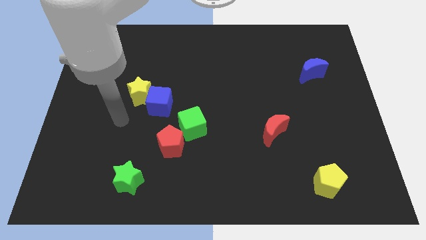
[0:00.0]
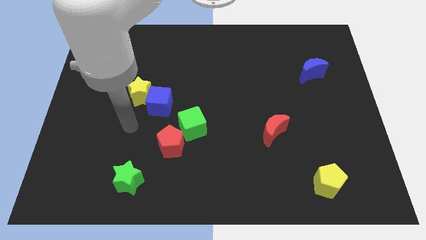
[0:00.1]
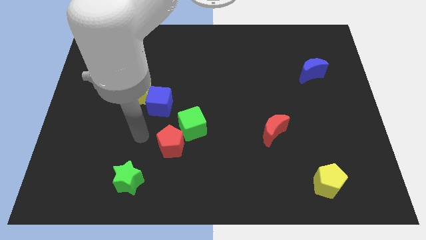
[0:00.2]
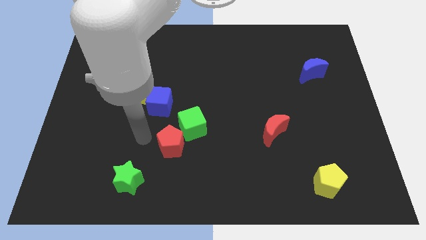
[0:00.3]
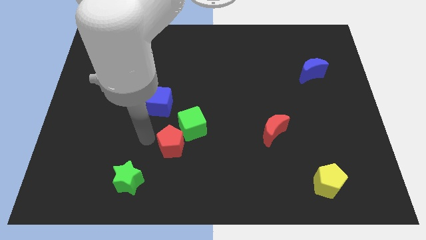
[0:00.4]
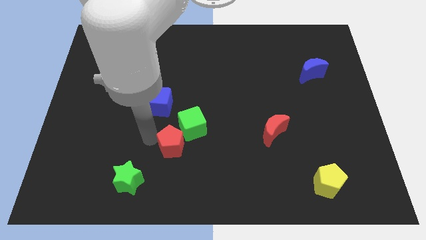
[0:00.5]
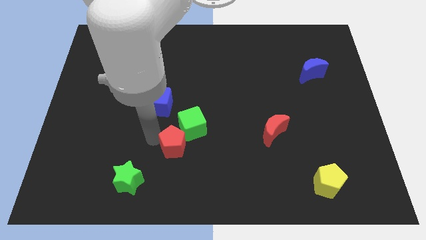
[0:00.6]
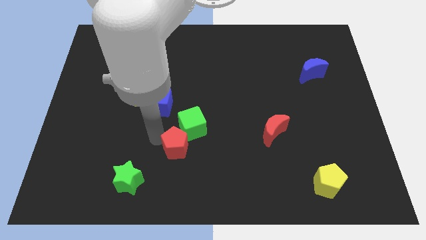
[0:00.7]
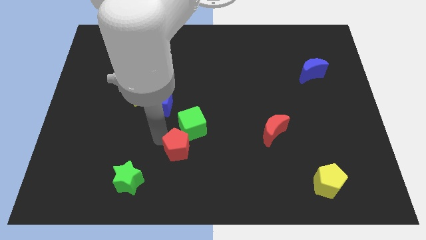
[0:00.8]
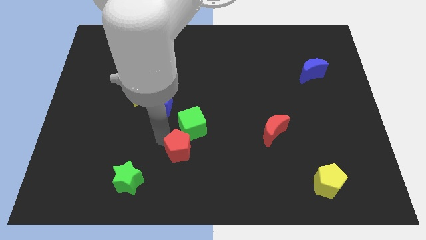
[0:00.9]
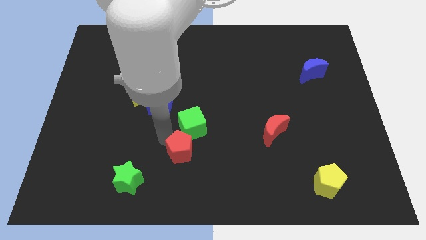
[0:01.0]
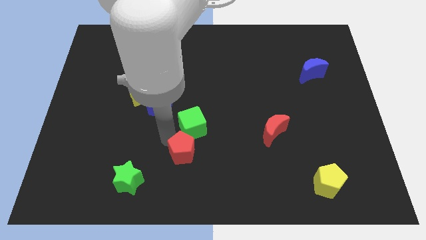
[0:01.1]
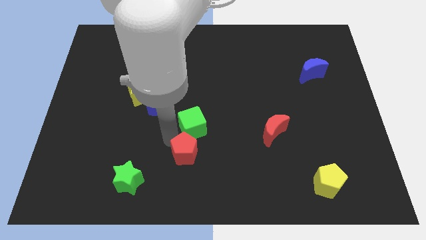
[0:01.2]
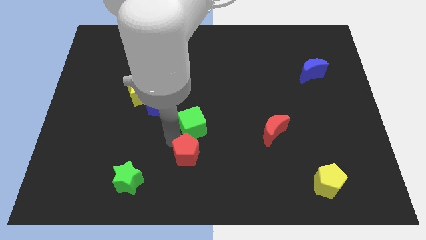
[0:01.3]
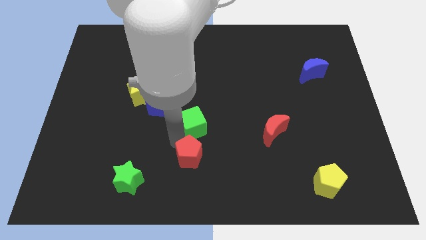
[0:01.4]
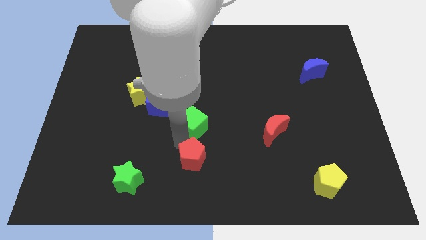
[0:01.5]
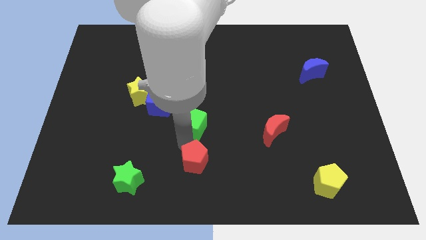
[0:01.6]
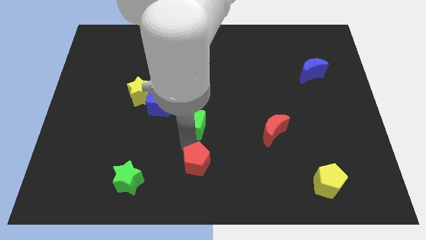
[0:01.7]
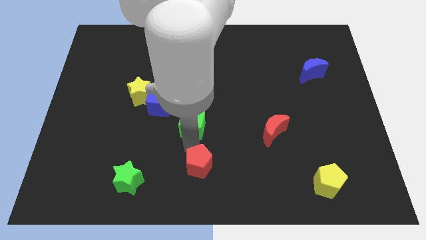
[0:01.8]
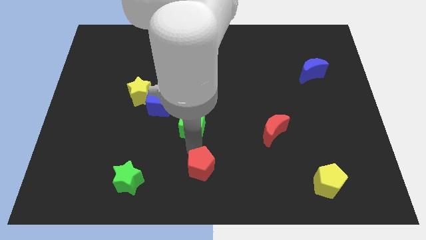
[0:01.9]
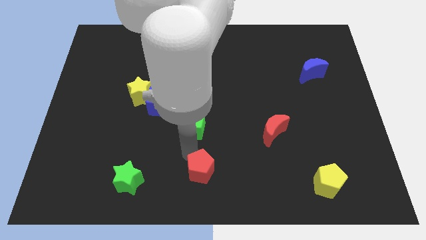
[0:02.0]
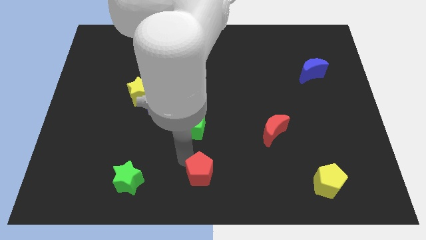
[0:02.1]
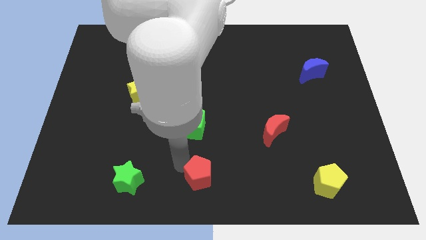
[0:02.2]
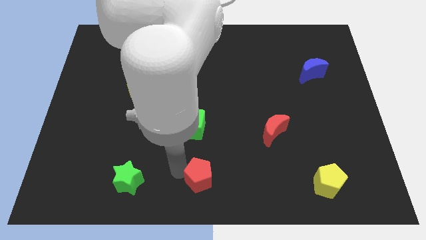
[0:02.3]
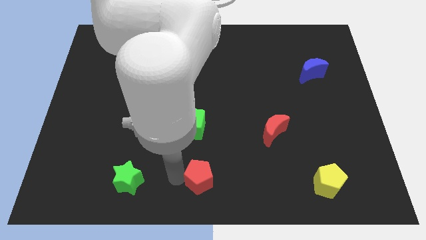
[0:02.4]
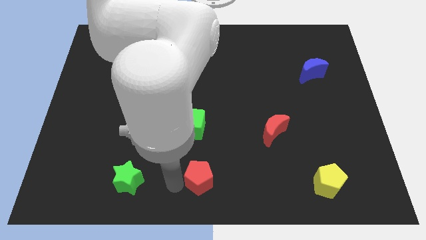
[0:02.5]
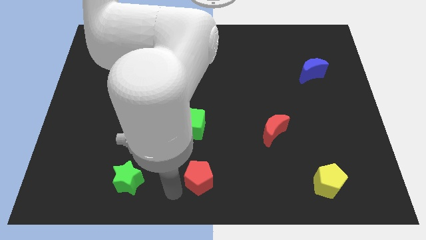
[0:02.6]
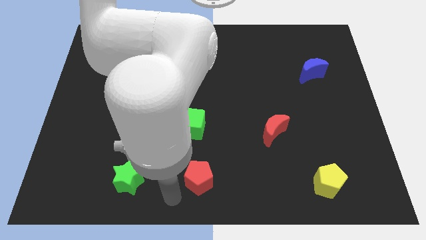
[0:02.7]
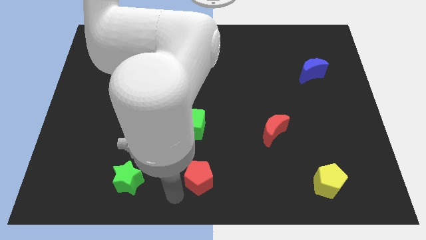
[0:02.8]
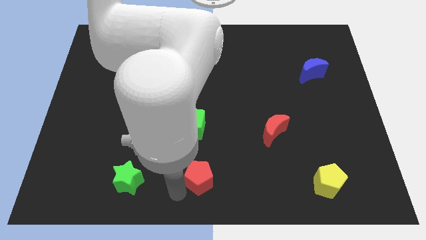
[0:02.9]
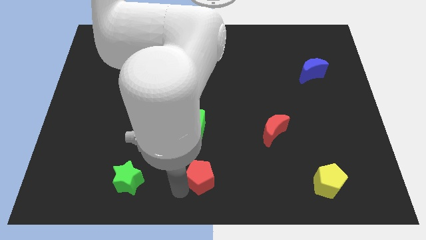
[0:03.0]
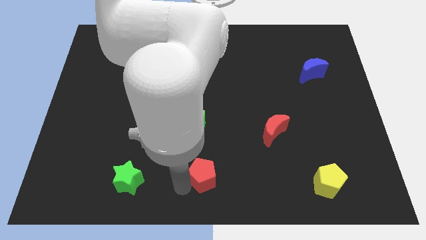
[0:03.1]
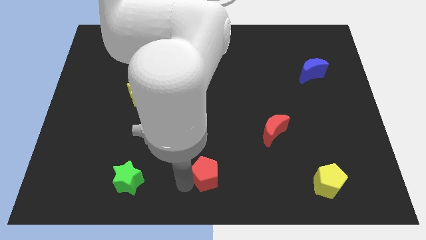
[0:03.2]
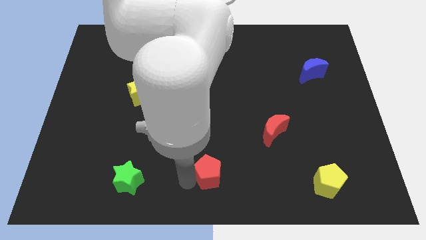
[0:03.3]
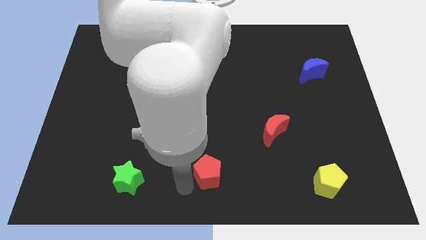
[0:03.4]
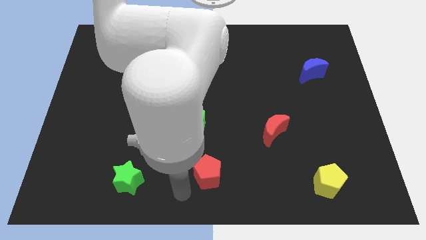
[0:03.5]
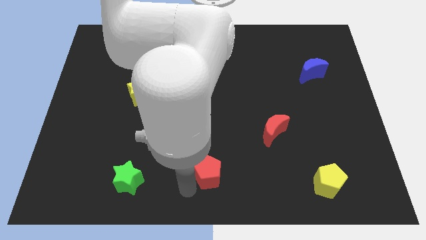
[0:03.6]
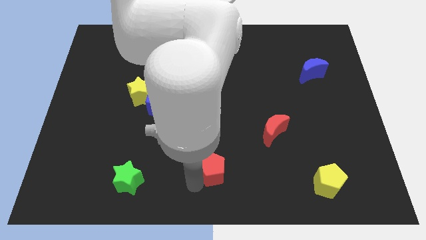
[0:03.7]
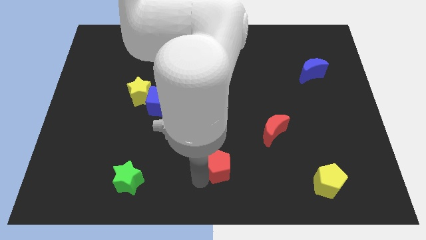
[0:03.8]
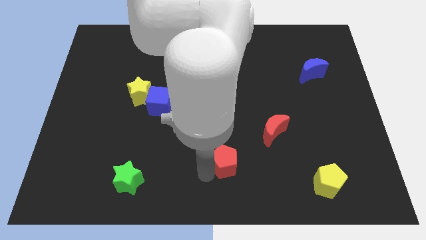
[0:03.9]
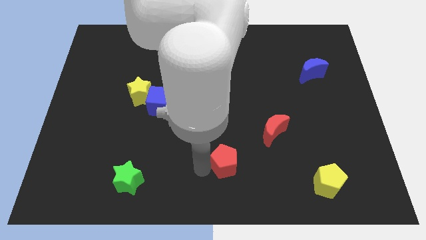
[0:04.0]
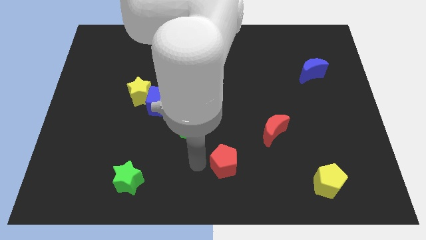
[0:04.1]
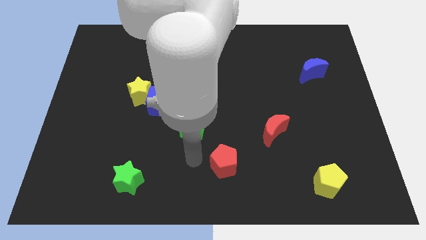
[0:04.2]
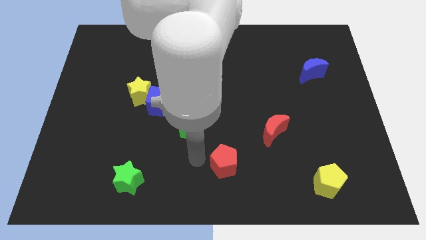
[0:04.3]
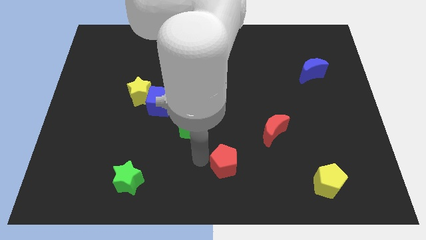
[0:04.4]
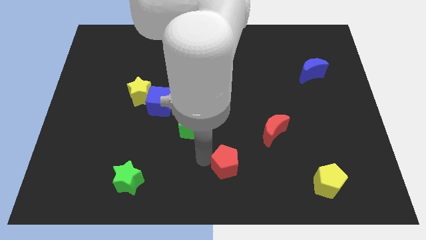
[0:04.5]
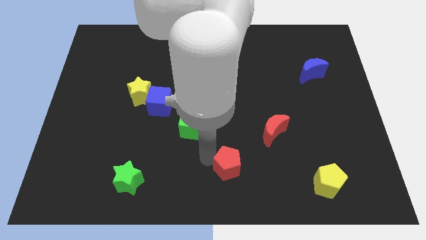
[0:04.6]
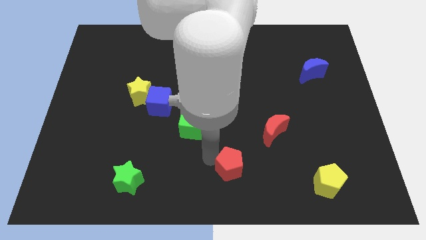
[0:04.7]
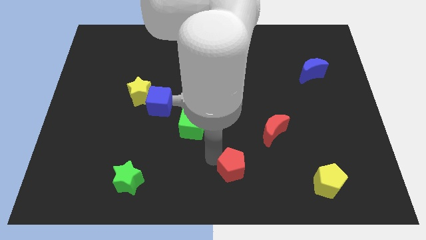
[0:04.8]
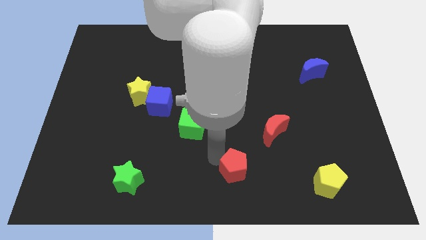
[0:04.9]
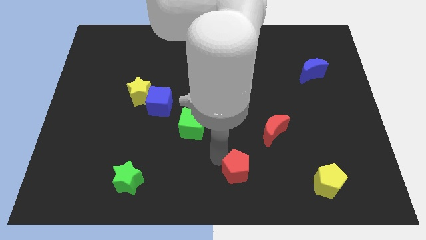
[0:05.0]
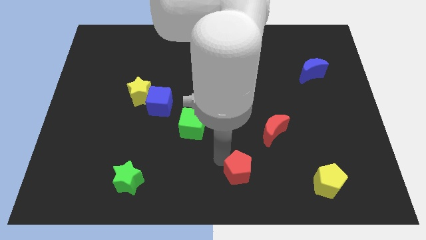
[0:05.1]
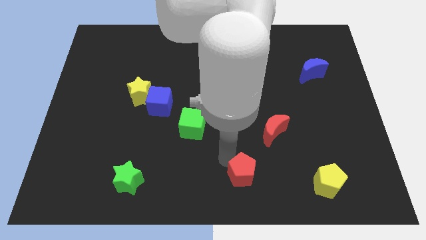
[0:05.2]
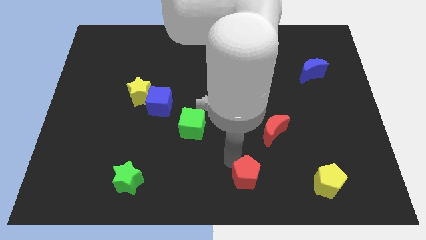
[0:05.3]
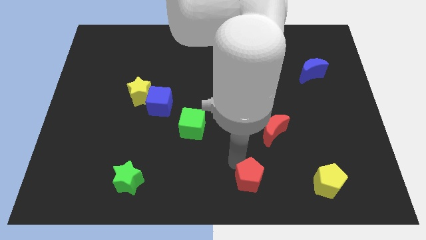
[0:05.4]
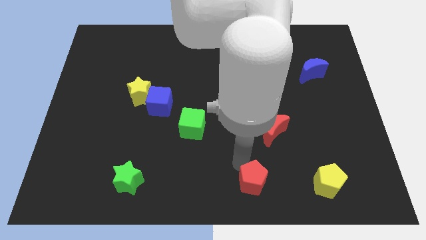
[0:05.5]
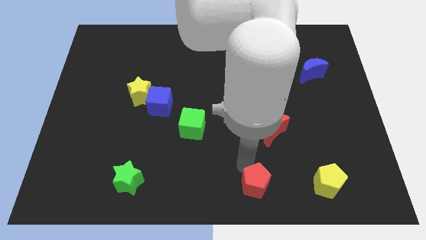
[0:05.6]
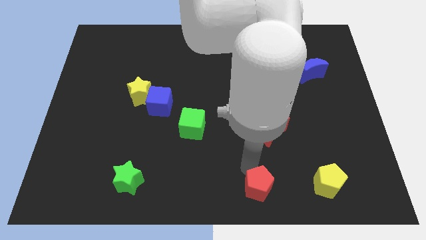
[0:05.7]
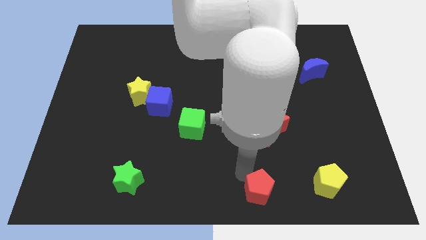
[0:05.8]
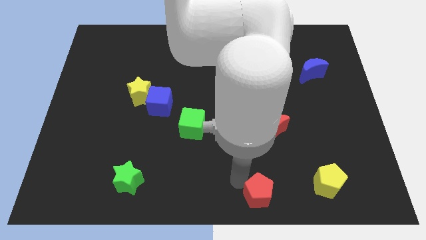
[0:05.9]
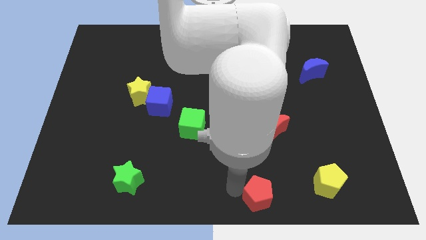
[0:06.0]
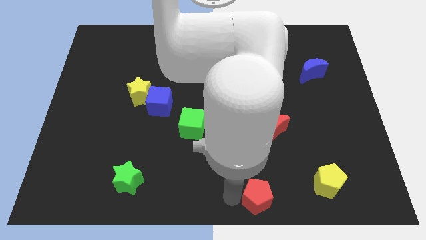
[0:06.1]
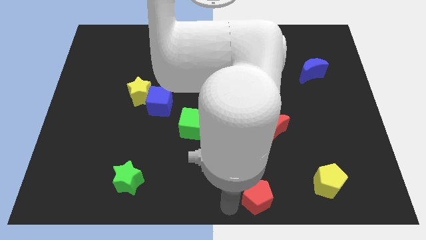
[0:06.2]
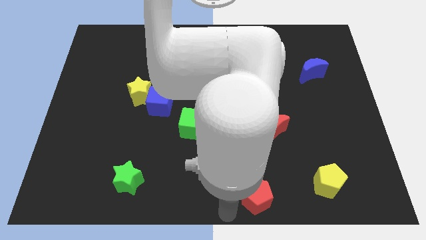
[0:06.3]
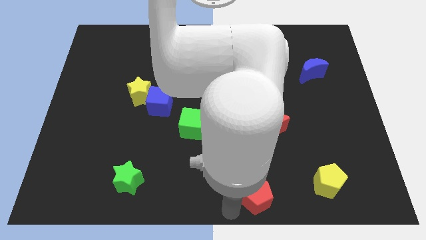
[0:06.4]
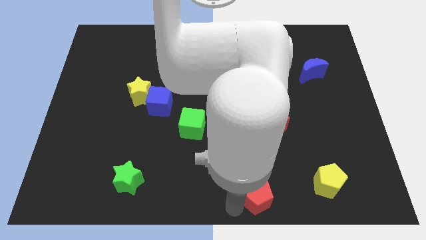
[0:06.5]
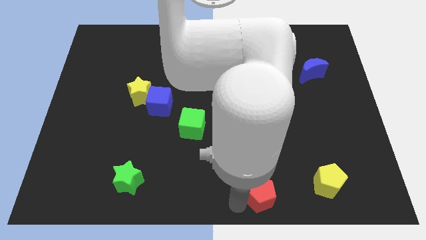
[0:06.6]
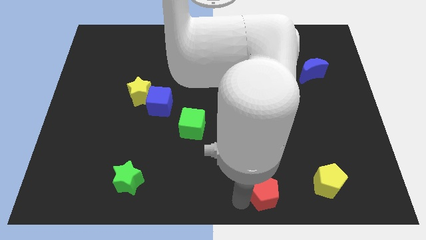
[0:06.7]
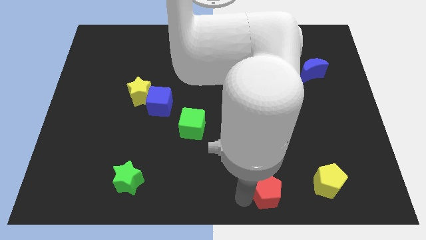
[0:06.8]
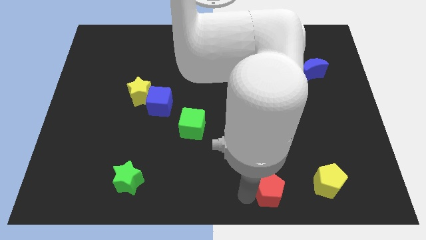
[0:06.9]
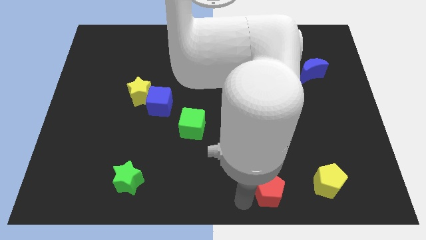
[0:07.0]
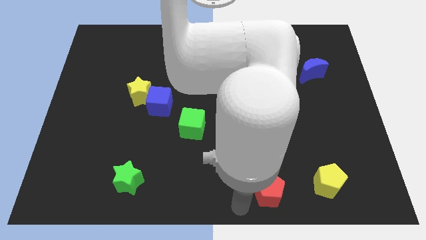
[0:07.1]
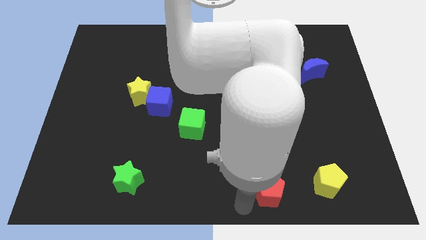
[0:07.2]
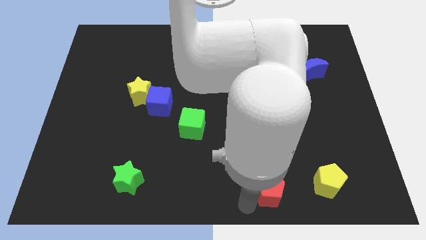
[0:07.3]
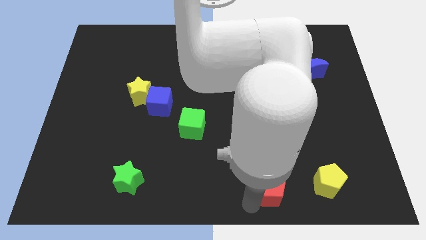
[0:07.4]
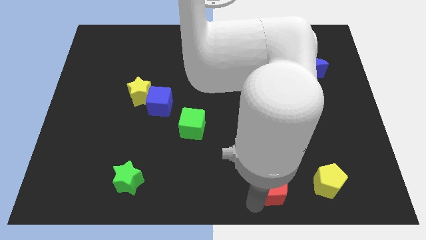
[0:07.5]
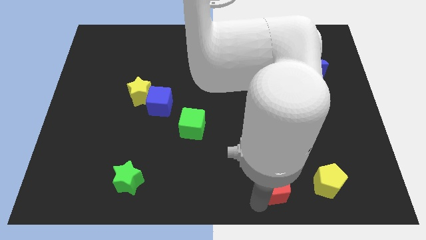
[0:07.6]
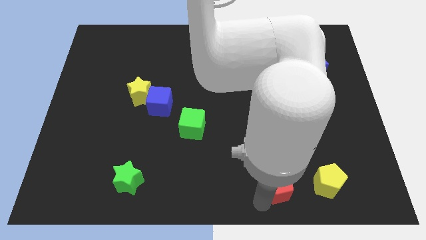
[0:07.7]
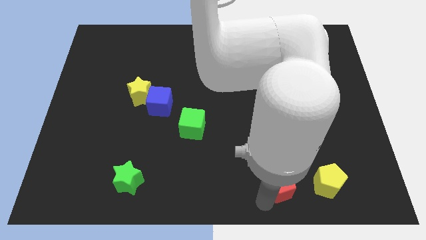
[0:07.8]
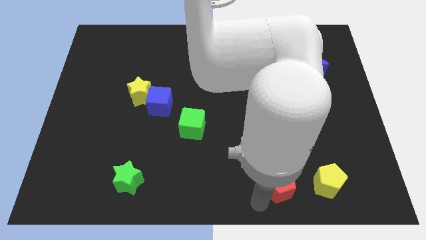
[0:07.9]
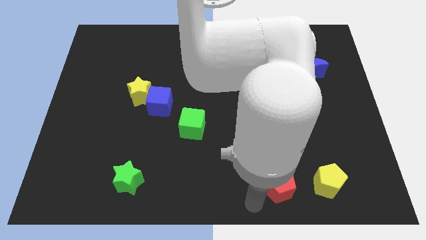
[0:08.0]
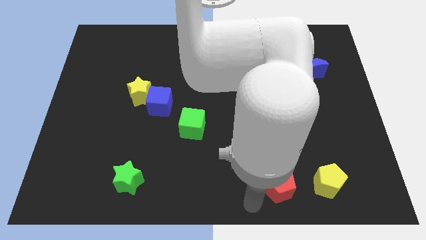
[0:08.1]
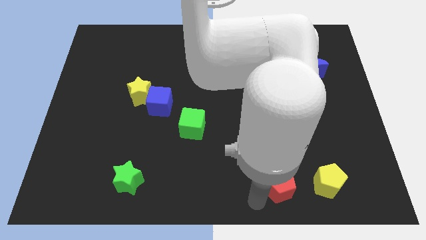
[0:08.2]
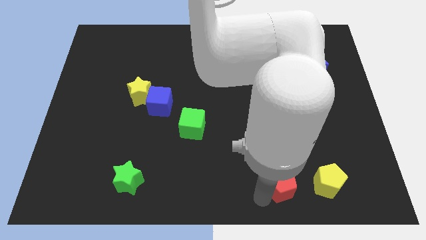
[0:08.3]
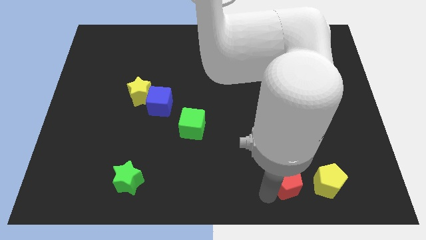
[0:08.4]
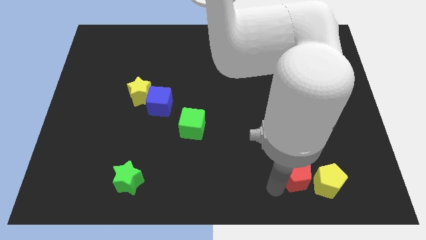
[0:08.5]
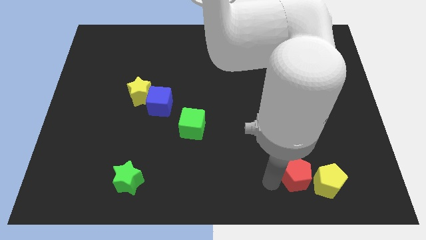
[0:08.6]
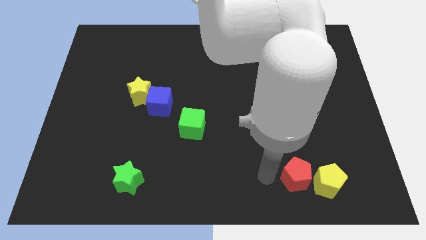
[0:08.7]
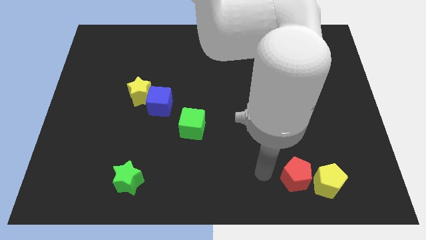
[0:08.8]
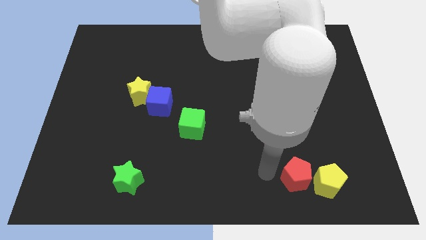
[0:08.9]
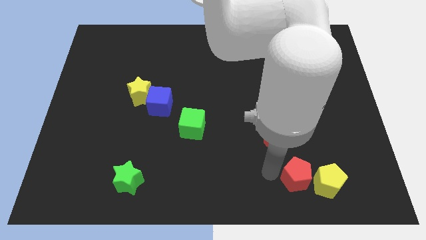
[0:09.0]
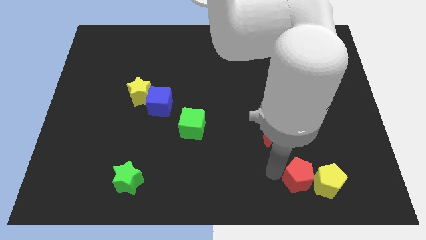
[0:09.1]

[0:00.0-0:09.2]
move the red pentagon towards the yellow pentagon
